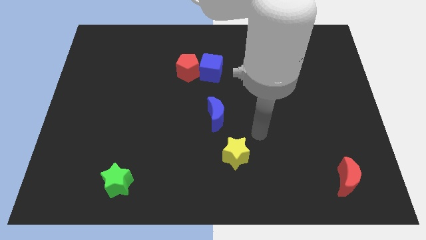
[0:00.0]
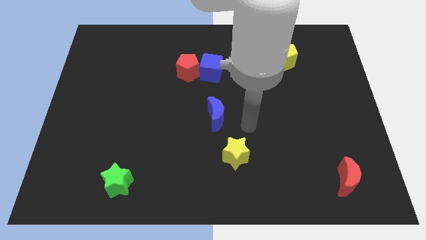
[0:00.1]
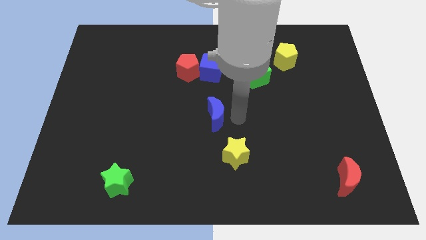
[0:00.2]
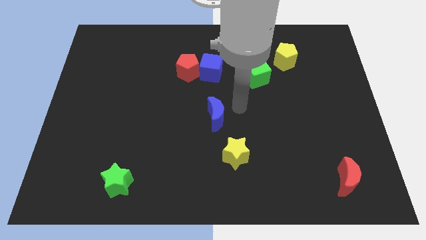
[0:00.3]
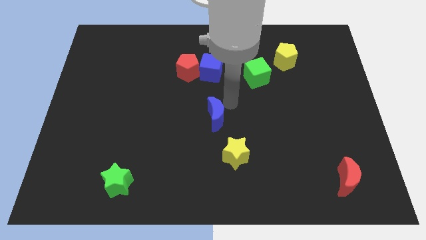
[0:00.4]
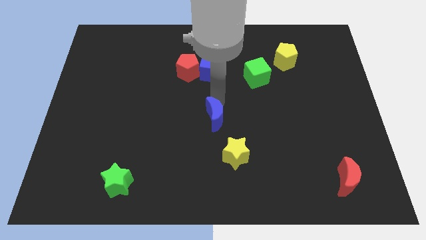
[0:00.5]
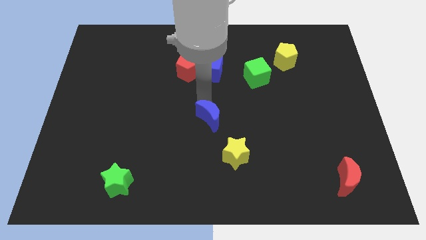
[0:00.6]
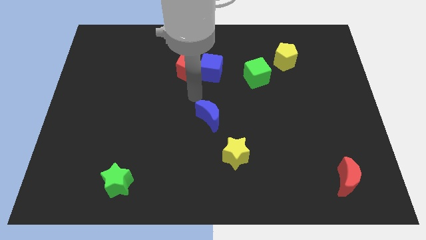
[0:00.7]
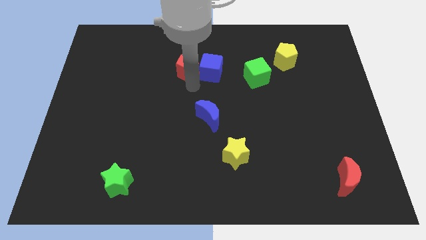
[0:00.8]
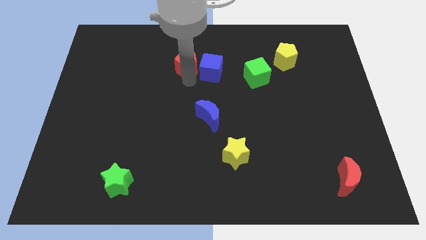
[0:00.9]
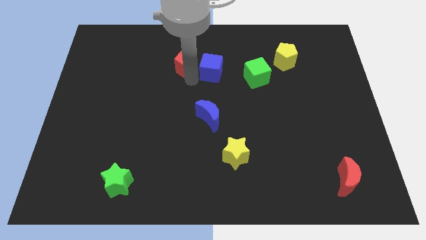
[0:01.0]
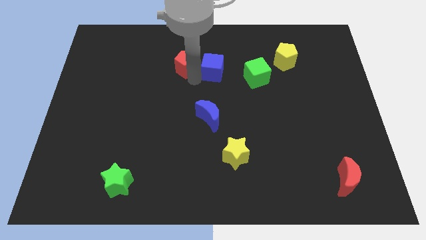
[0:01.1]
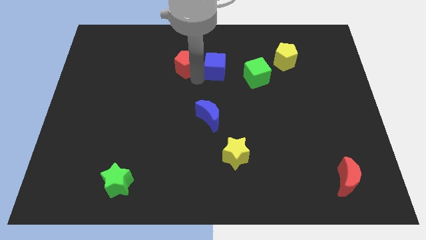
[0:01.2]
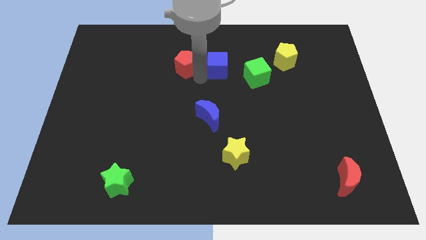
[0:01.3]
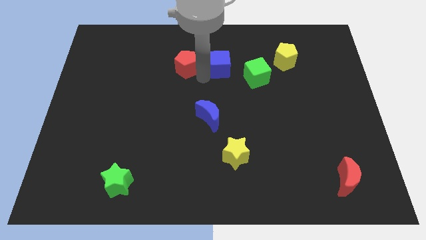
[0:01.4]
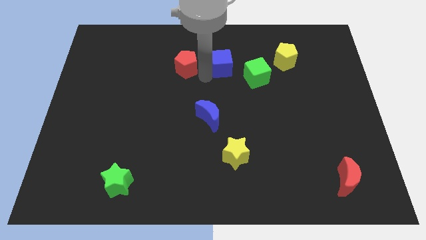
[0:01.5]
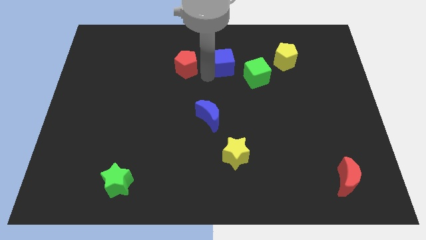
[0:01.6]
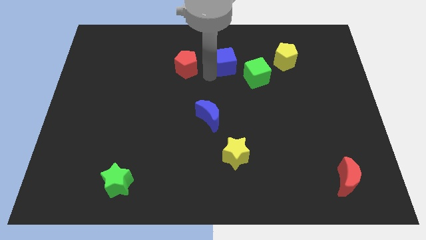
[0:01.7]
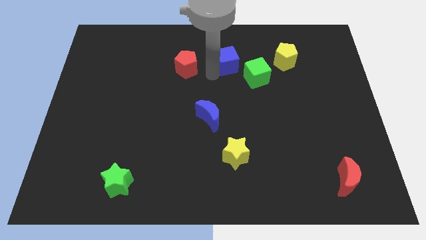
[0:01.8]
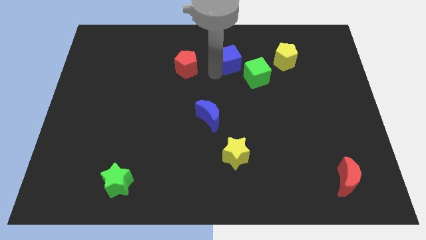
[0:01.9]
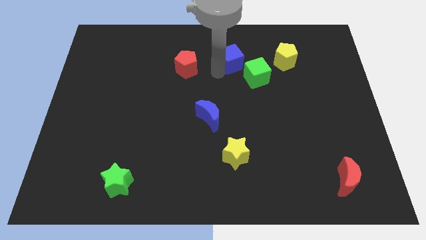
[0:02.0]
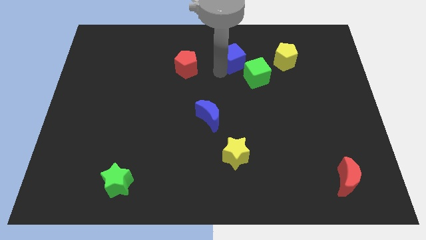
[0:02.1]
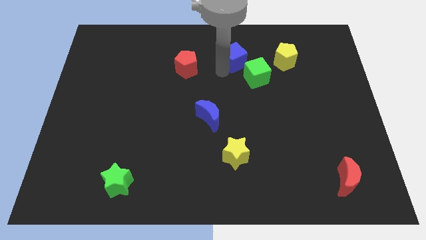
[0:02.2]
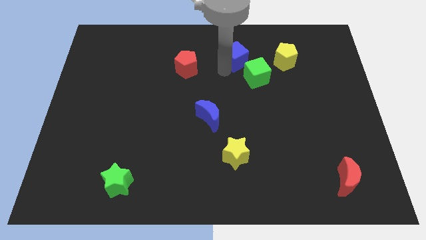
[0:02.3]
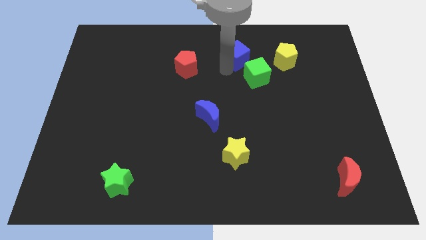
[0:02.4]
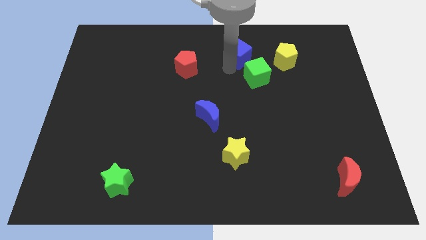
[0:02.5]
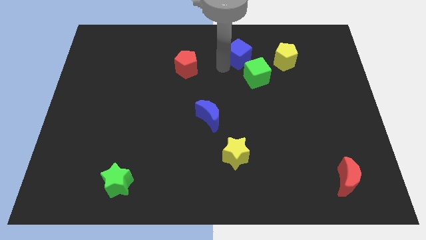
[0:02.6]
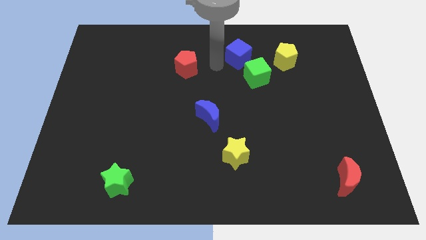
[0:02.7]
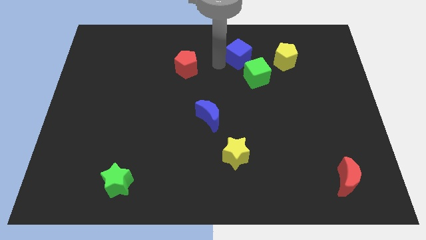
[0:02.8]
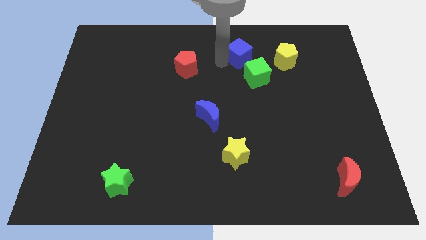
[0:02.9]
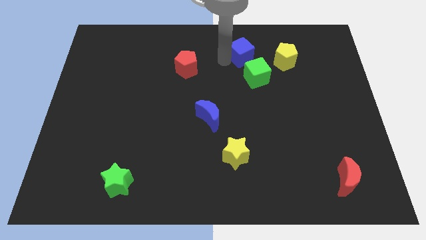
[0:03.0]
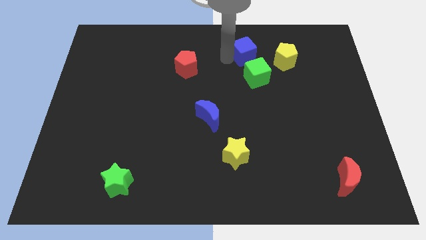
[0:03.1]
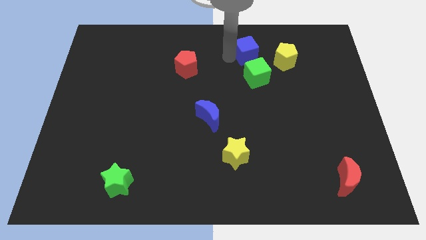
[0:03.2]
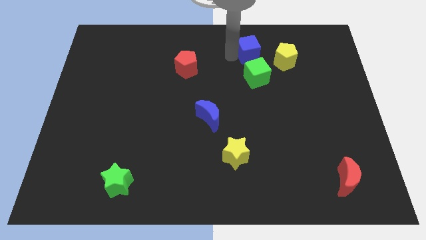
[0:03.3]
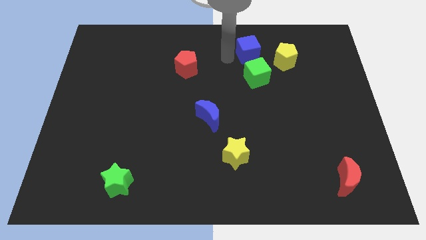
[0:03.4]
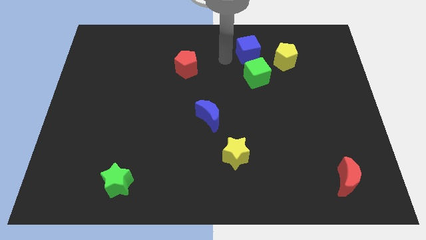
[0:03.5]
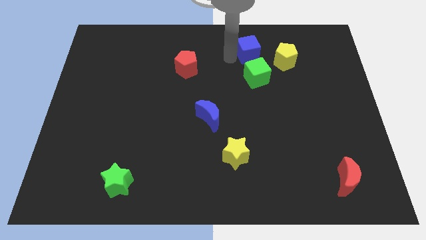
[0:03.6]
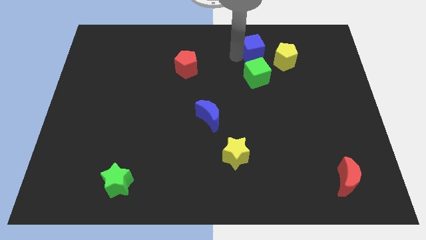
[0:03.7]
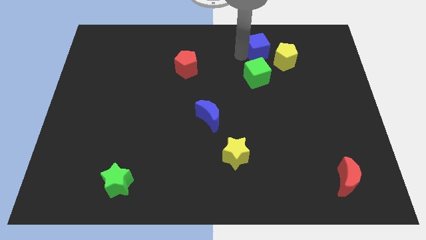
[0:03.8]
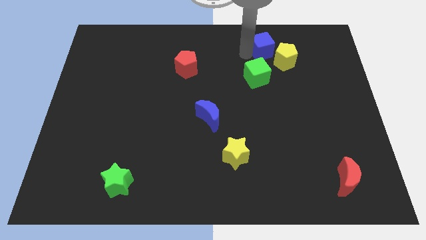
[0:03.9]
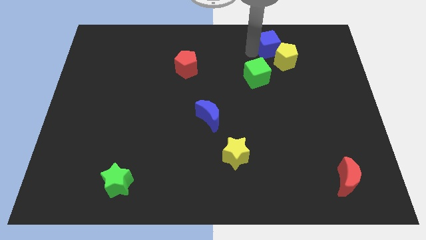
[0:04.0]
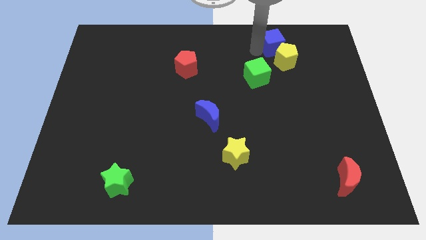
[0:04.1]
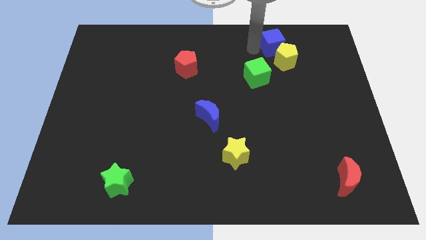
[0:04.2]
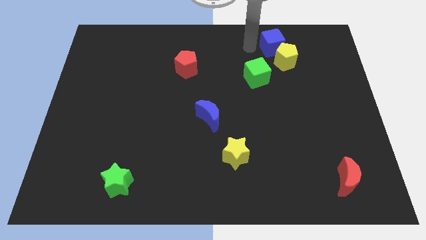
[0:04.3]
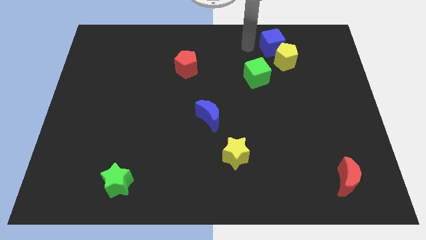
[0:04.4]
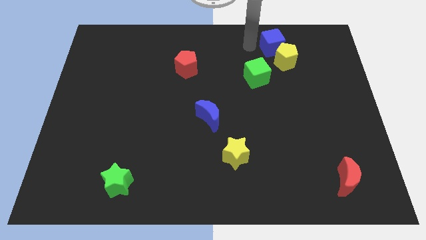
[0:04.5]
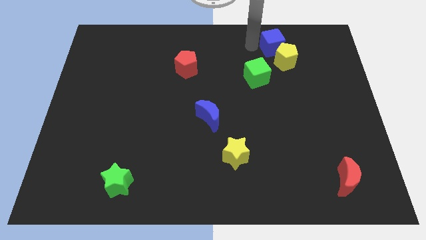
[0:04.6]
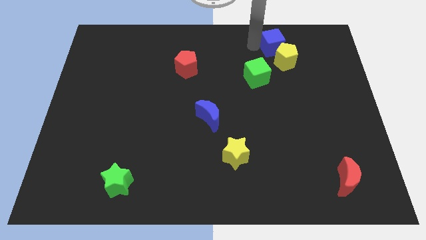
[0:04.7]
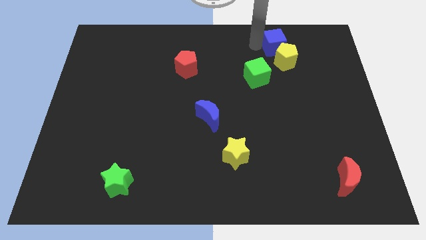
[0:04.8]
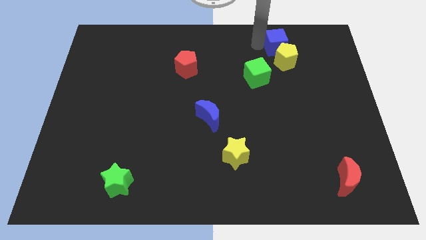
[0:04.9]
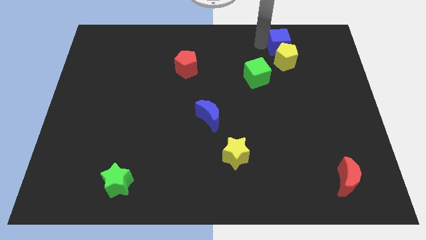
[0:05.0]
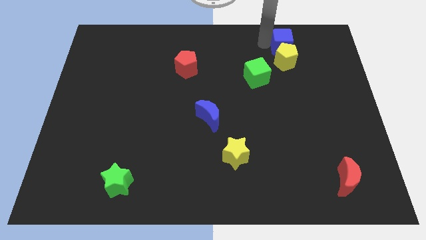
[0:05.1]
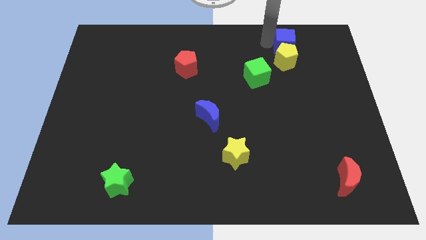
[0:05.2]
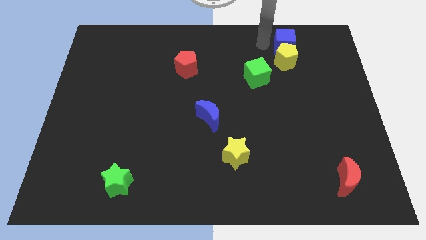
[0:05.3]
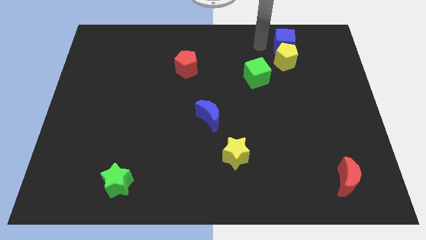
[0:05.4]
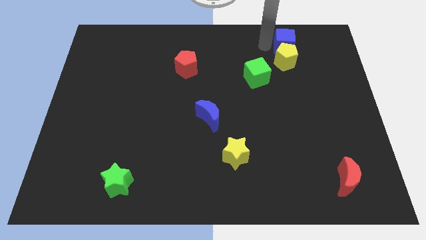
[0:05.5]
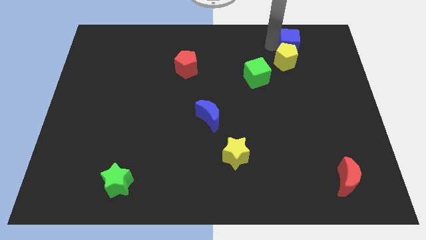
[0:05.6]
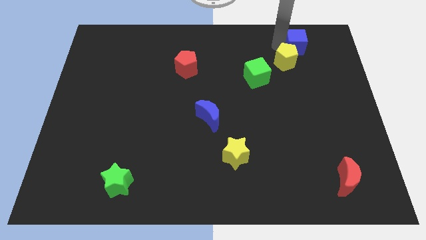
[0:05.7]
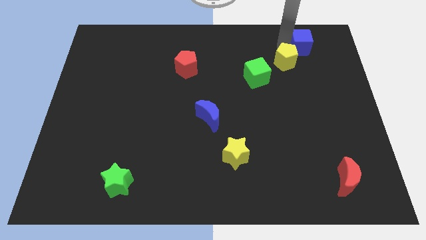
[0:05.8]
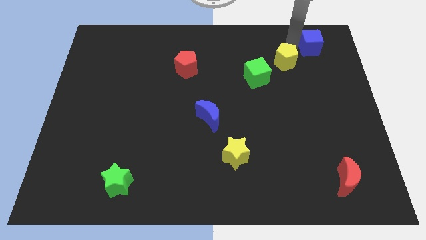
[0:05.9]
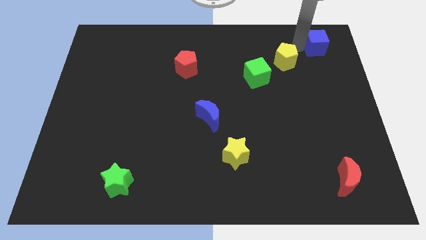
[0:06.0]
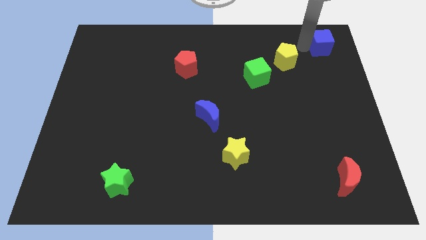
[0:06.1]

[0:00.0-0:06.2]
move the blue cube to the top right of the board

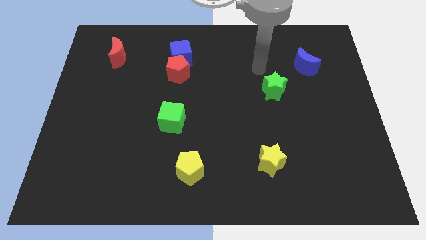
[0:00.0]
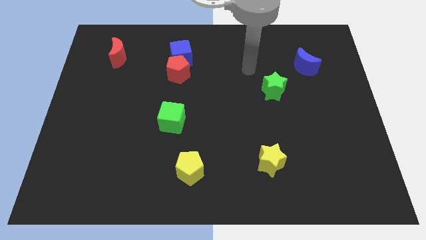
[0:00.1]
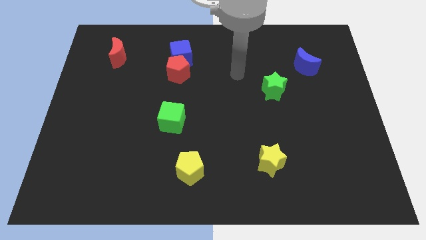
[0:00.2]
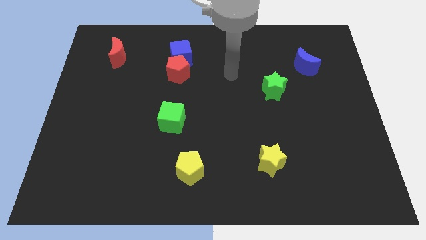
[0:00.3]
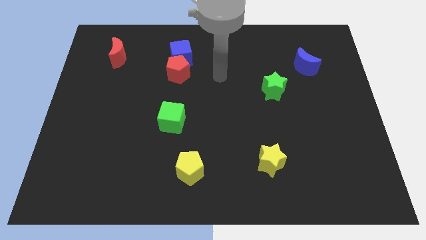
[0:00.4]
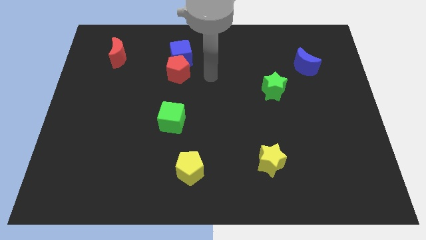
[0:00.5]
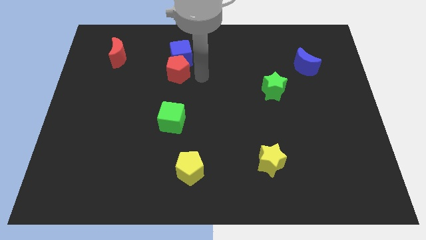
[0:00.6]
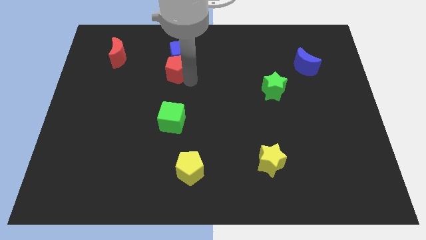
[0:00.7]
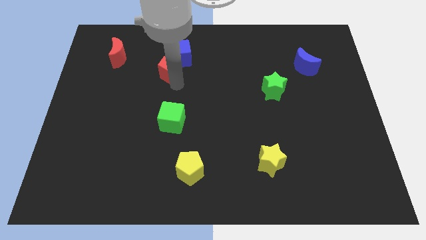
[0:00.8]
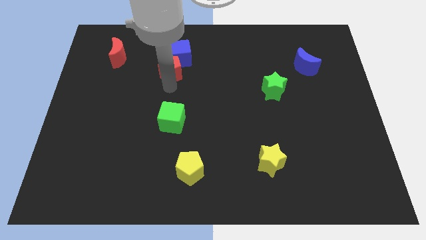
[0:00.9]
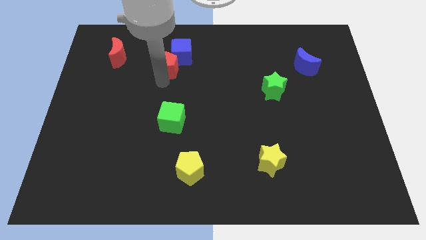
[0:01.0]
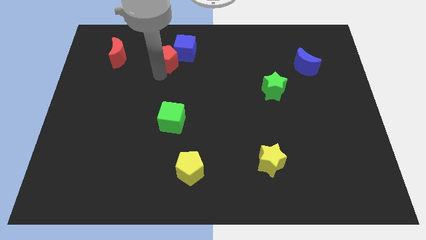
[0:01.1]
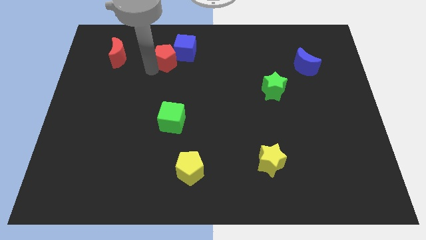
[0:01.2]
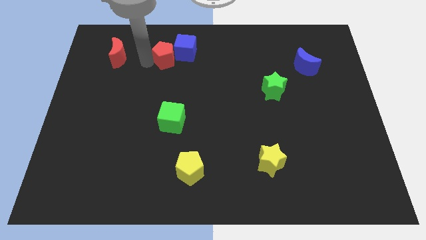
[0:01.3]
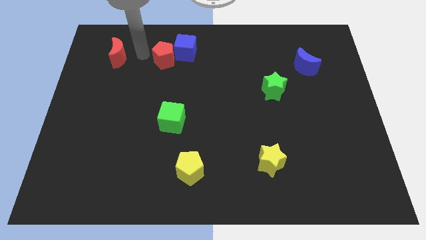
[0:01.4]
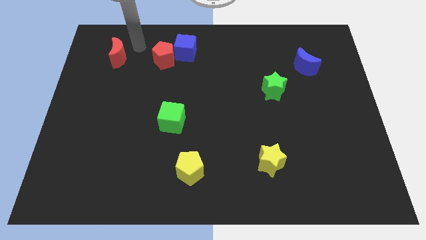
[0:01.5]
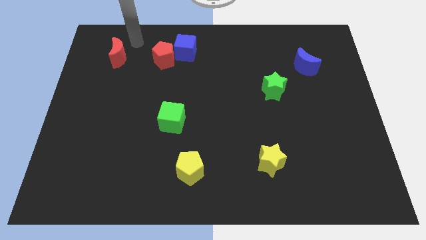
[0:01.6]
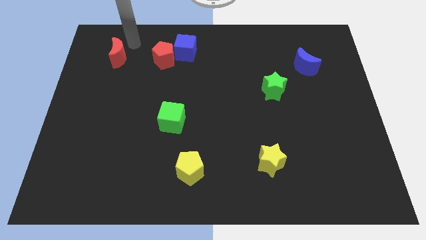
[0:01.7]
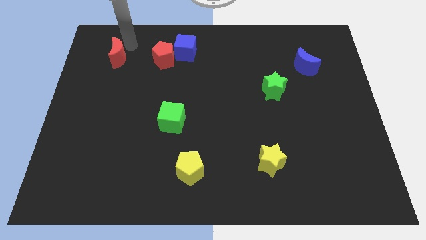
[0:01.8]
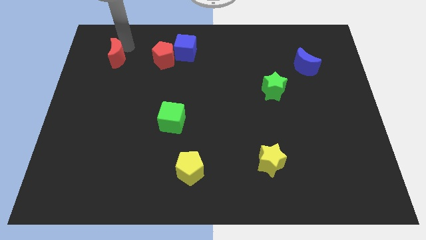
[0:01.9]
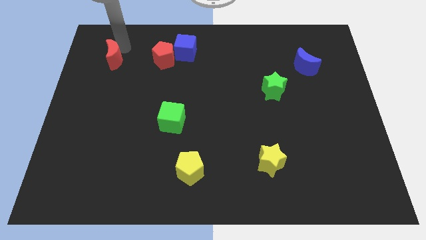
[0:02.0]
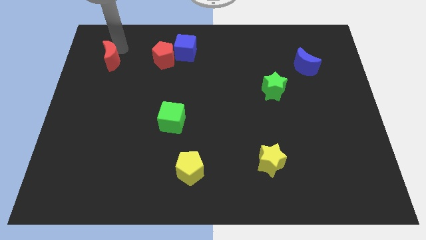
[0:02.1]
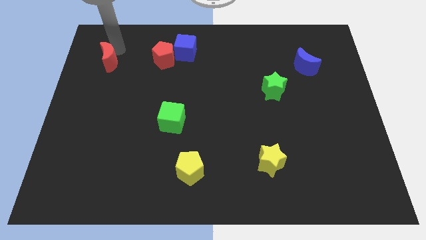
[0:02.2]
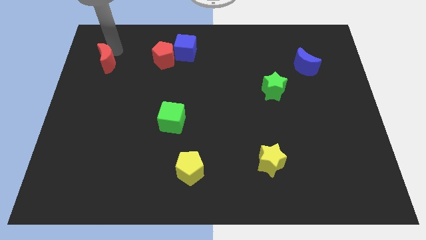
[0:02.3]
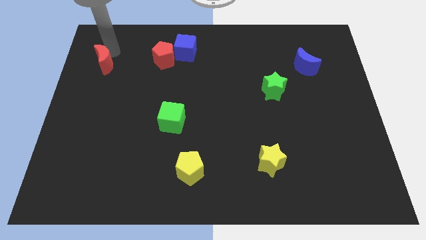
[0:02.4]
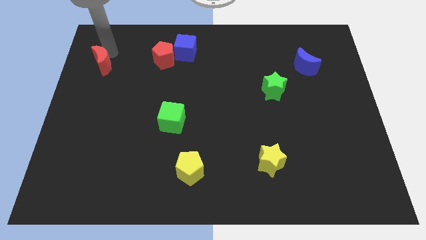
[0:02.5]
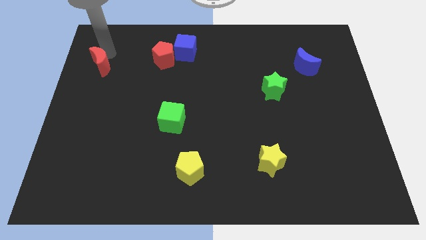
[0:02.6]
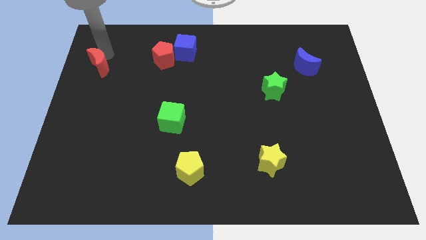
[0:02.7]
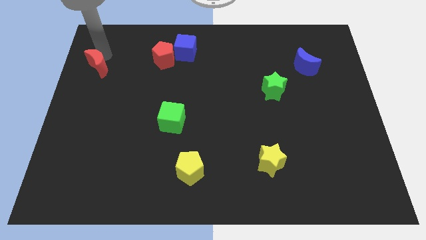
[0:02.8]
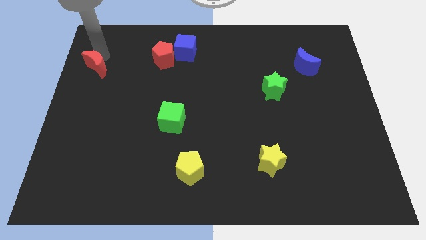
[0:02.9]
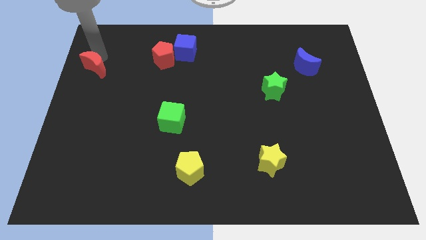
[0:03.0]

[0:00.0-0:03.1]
put the red moon to the center left
